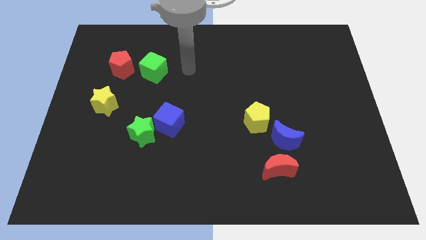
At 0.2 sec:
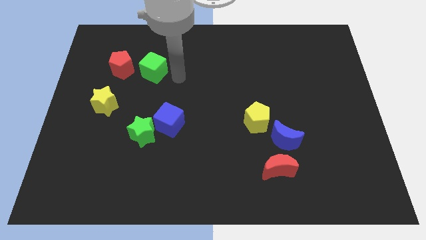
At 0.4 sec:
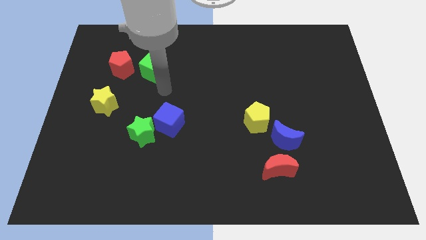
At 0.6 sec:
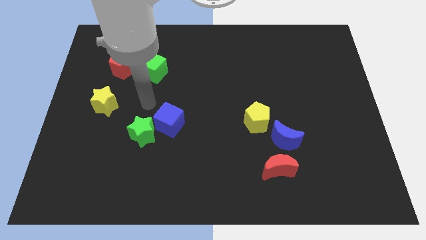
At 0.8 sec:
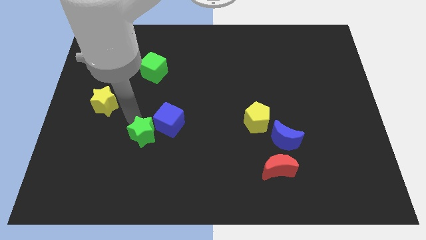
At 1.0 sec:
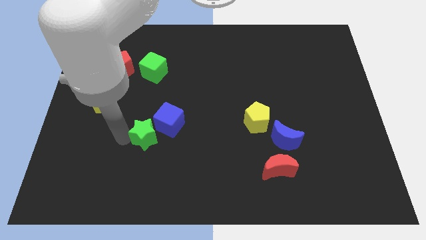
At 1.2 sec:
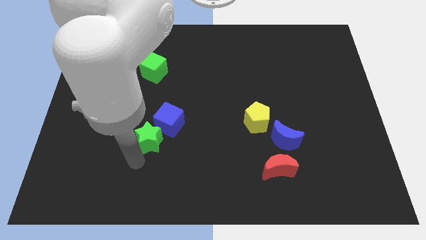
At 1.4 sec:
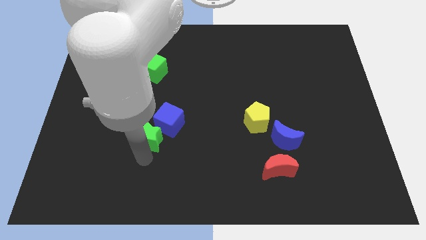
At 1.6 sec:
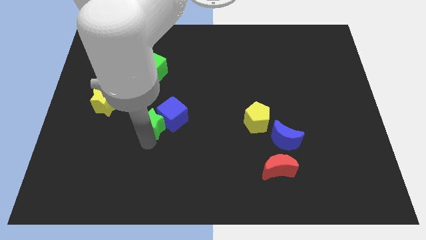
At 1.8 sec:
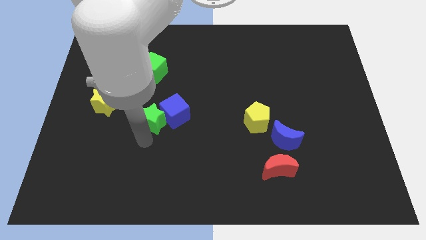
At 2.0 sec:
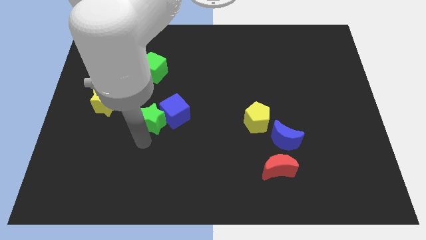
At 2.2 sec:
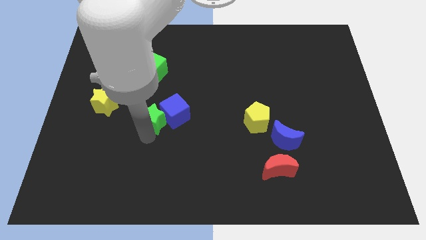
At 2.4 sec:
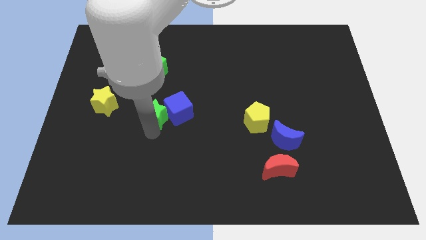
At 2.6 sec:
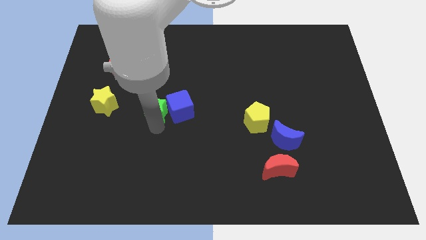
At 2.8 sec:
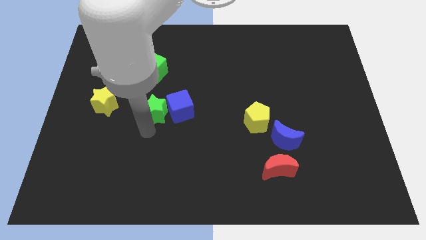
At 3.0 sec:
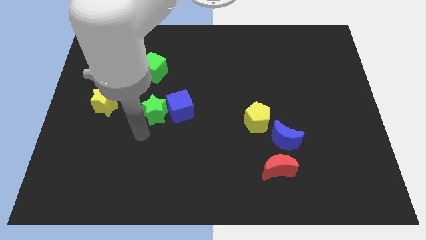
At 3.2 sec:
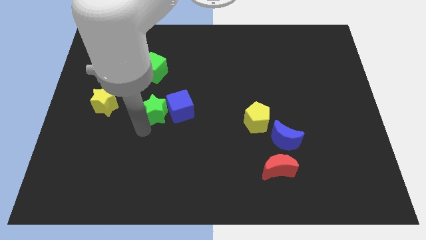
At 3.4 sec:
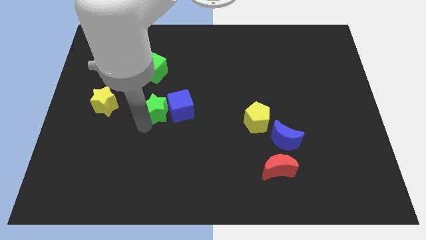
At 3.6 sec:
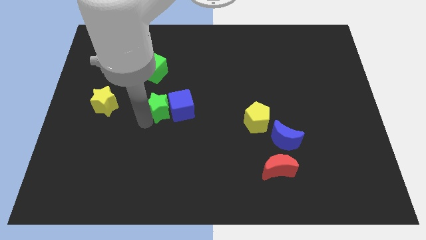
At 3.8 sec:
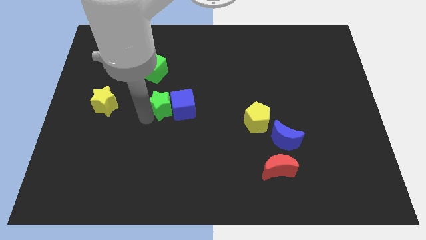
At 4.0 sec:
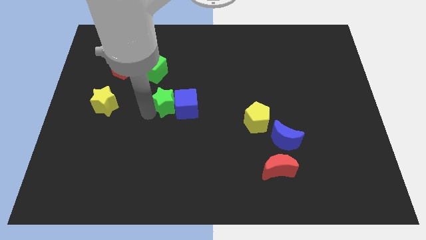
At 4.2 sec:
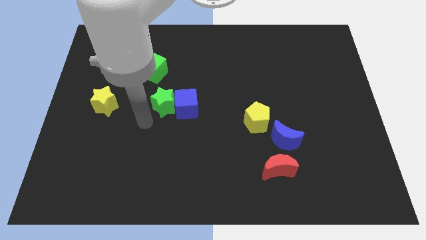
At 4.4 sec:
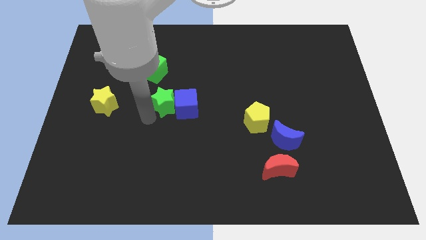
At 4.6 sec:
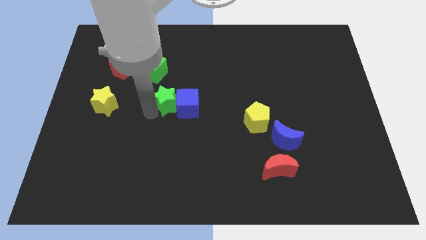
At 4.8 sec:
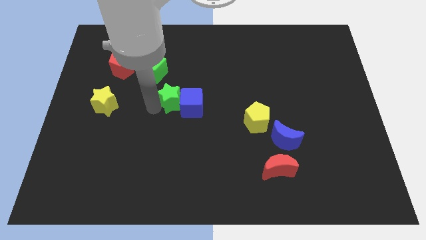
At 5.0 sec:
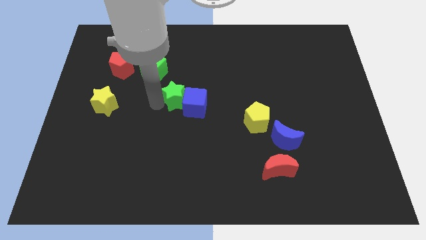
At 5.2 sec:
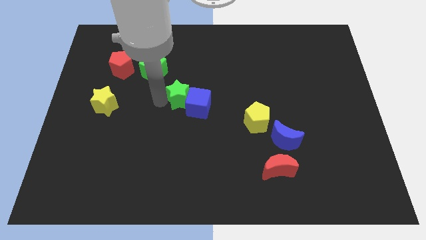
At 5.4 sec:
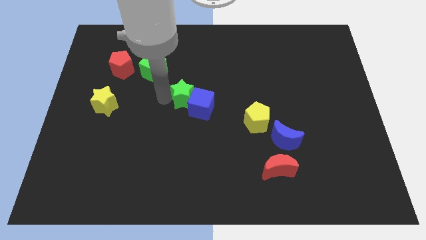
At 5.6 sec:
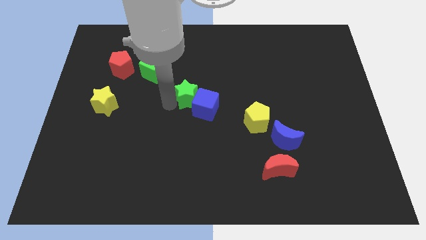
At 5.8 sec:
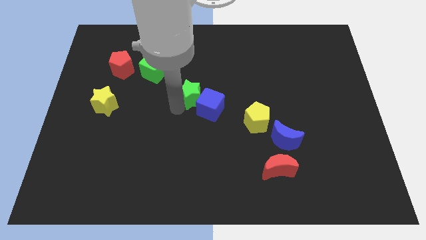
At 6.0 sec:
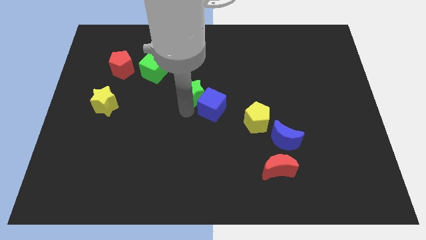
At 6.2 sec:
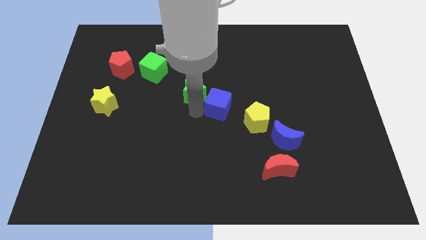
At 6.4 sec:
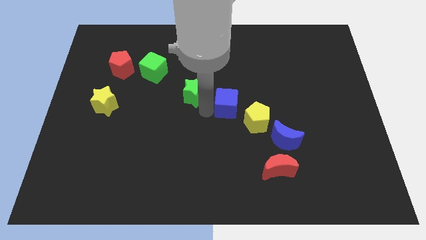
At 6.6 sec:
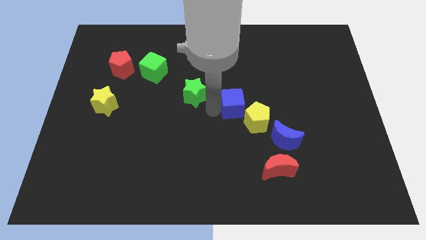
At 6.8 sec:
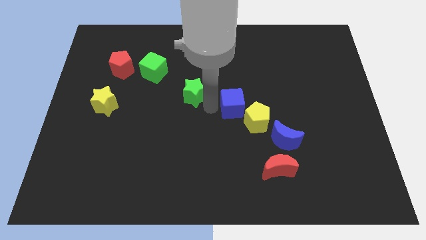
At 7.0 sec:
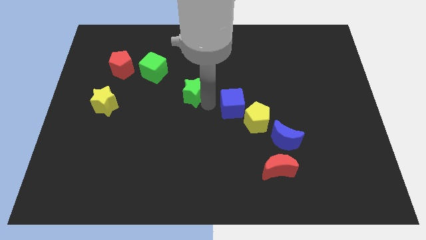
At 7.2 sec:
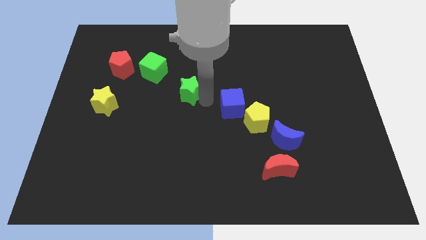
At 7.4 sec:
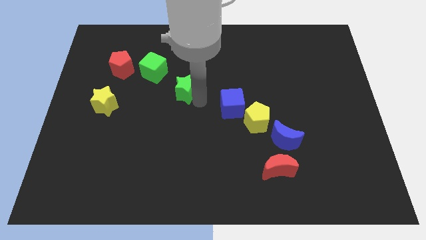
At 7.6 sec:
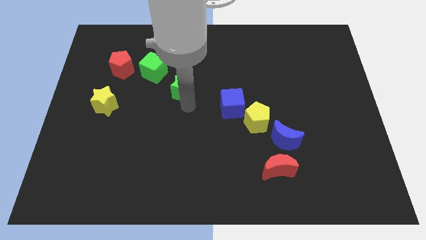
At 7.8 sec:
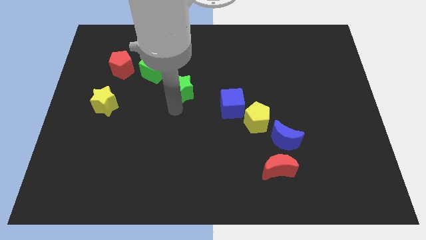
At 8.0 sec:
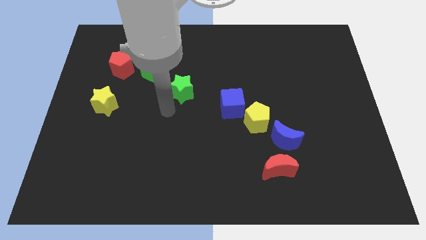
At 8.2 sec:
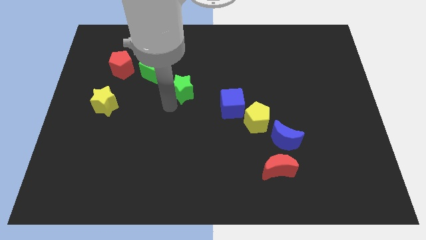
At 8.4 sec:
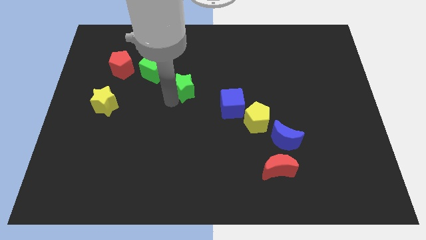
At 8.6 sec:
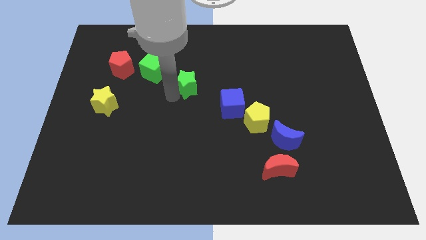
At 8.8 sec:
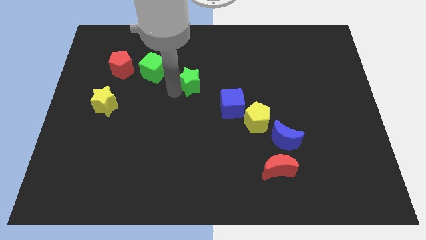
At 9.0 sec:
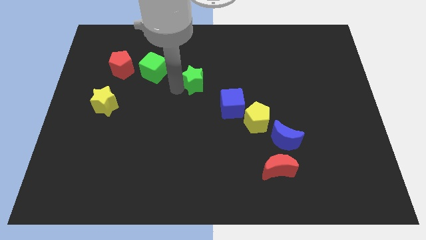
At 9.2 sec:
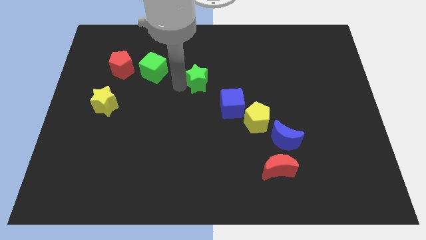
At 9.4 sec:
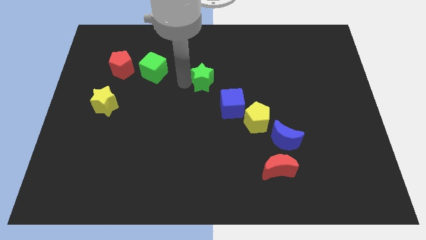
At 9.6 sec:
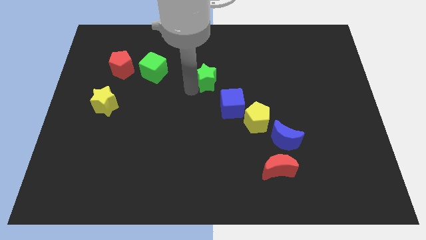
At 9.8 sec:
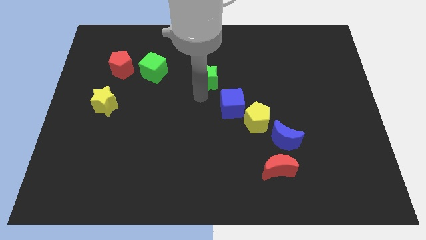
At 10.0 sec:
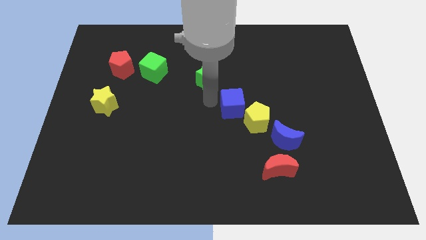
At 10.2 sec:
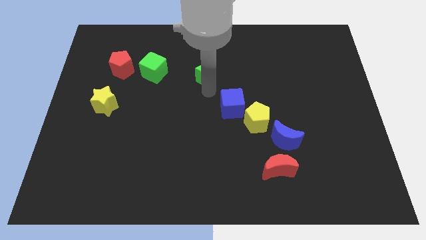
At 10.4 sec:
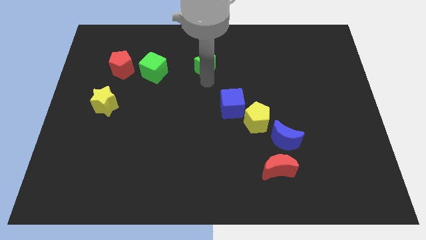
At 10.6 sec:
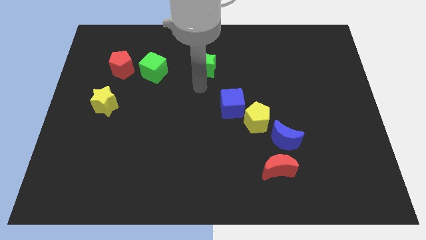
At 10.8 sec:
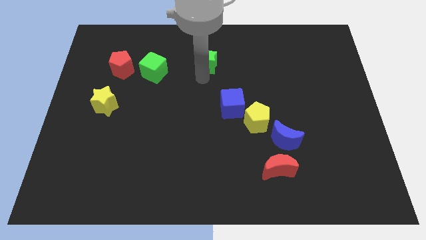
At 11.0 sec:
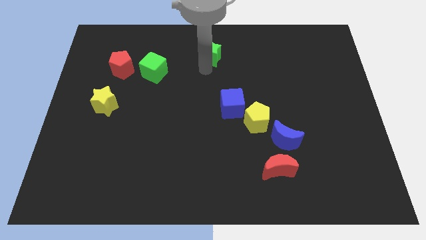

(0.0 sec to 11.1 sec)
slide the green star to the top side

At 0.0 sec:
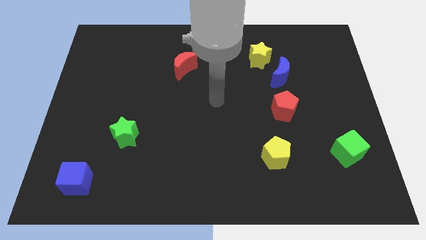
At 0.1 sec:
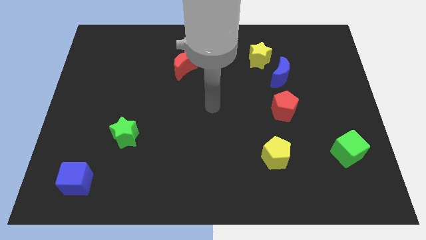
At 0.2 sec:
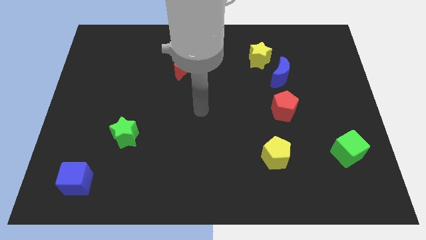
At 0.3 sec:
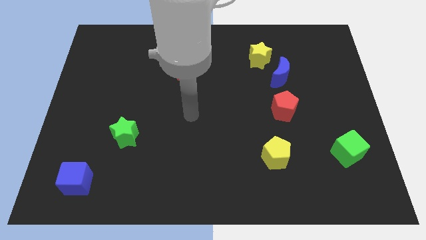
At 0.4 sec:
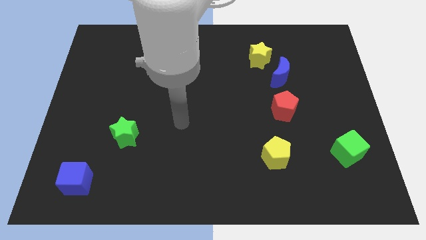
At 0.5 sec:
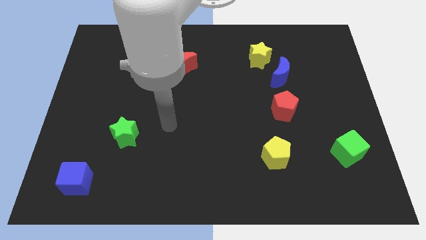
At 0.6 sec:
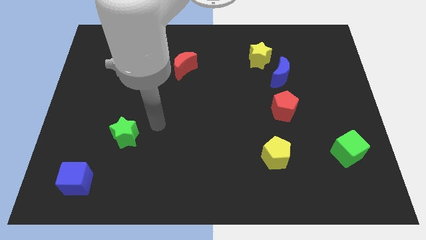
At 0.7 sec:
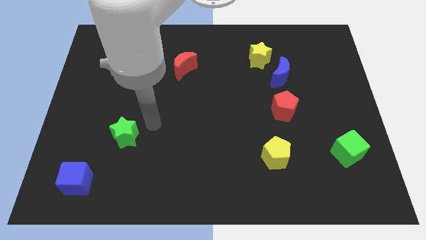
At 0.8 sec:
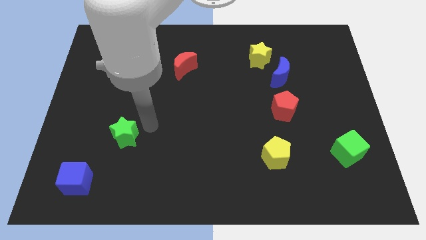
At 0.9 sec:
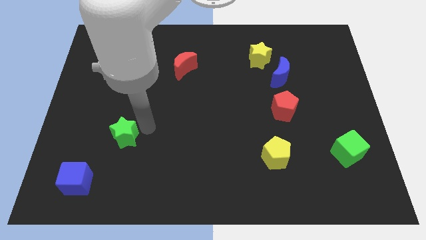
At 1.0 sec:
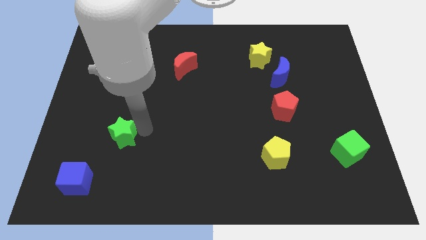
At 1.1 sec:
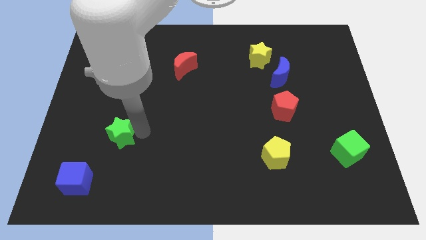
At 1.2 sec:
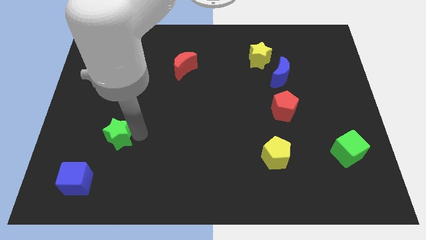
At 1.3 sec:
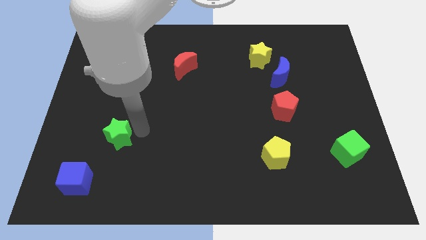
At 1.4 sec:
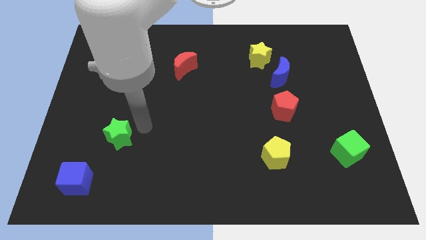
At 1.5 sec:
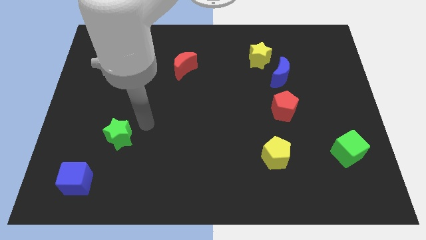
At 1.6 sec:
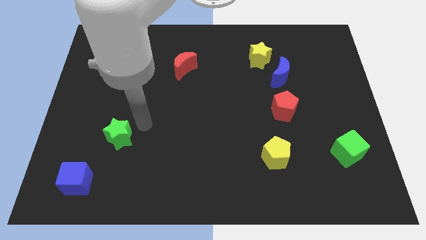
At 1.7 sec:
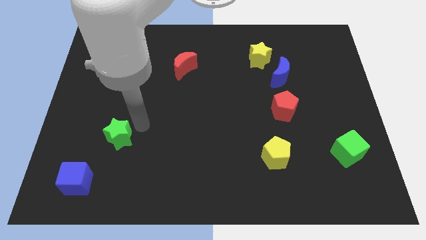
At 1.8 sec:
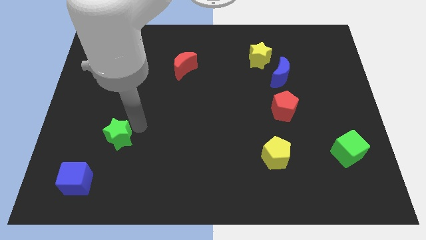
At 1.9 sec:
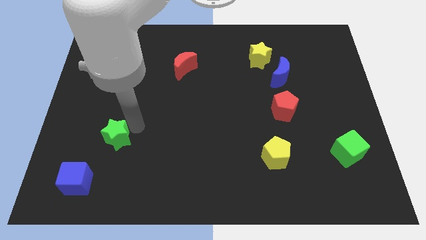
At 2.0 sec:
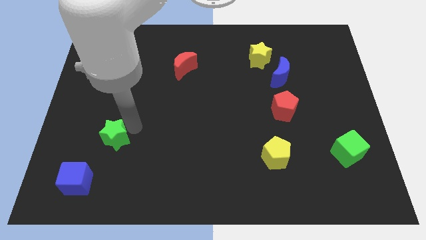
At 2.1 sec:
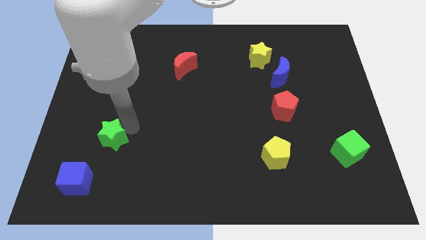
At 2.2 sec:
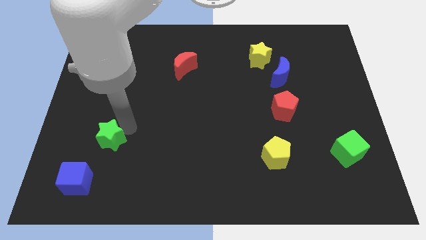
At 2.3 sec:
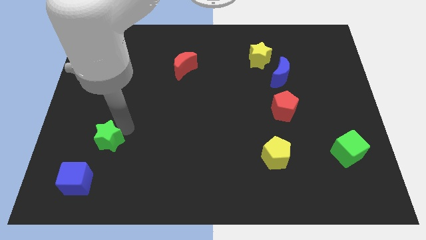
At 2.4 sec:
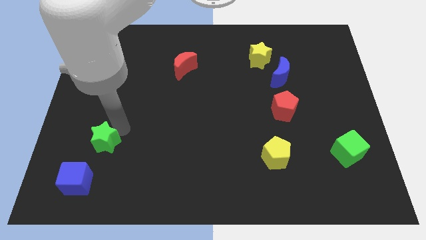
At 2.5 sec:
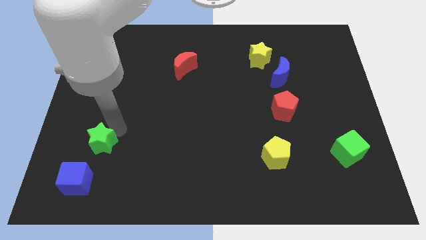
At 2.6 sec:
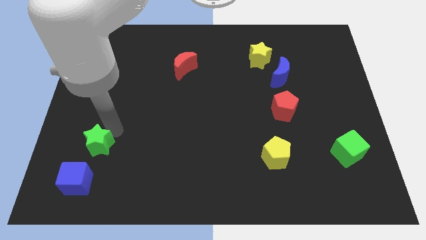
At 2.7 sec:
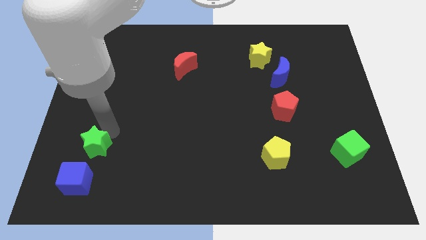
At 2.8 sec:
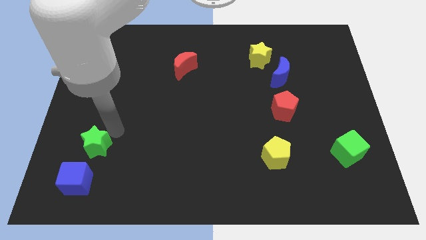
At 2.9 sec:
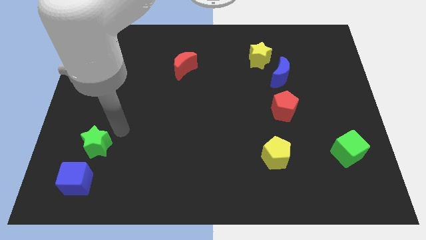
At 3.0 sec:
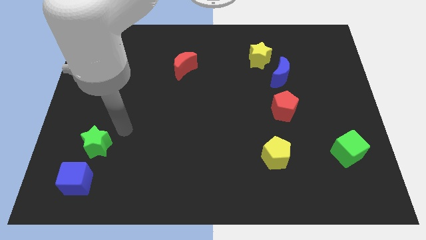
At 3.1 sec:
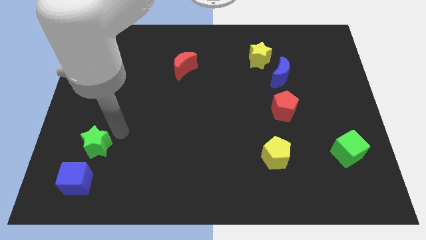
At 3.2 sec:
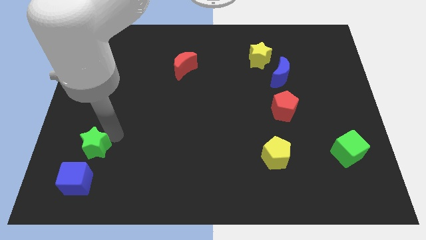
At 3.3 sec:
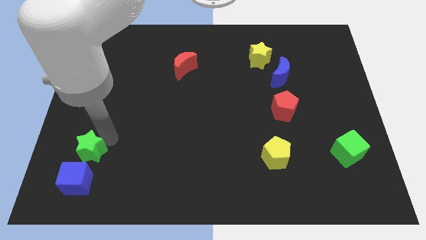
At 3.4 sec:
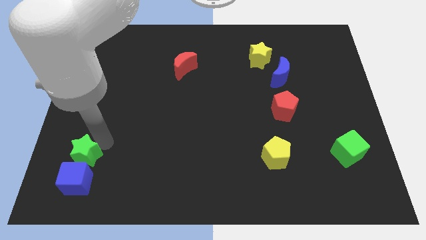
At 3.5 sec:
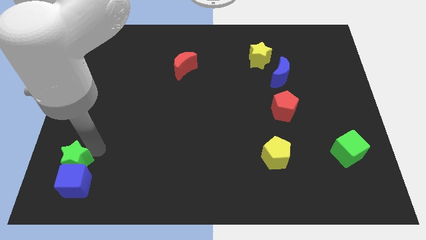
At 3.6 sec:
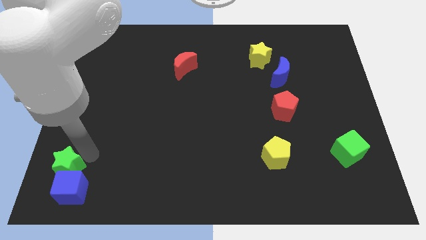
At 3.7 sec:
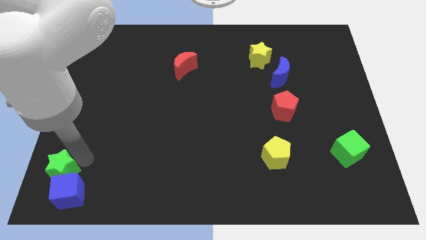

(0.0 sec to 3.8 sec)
push the green star to the bottom left of the board
